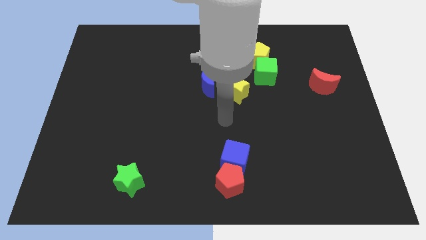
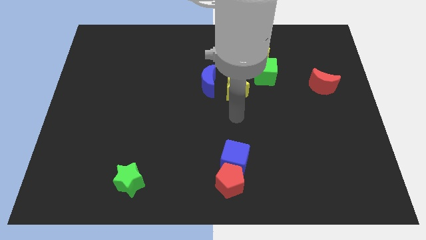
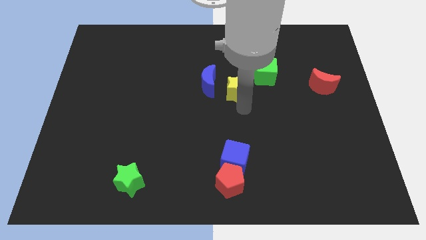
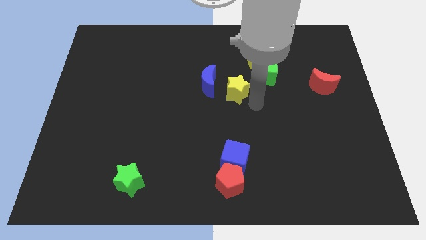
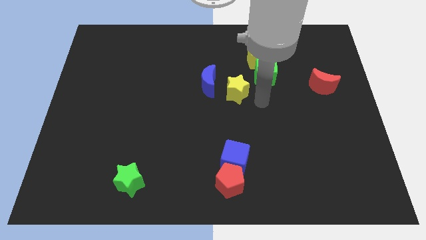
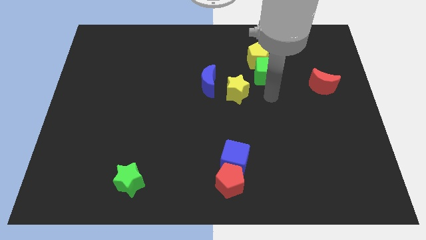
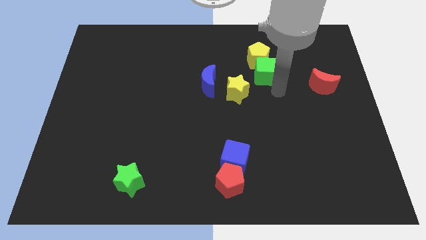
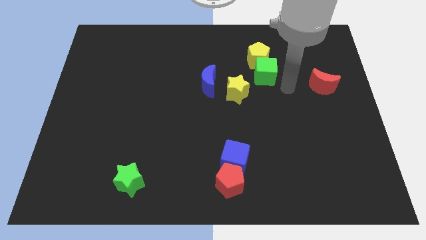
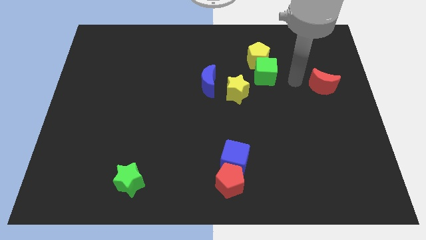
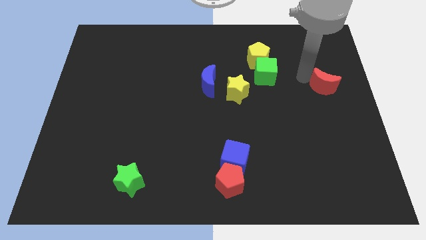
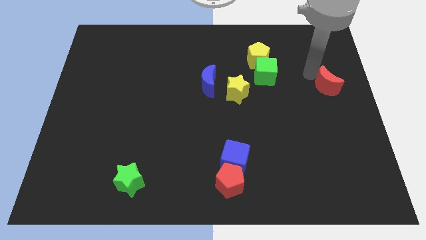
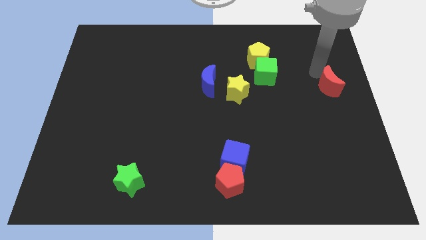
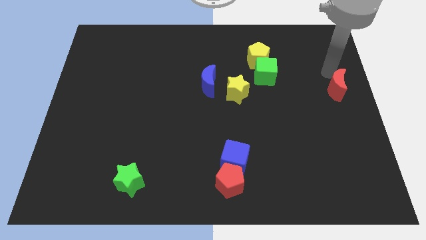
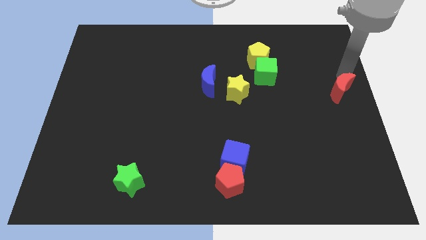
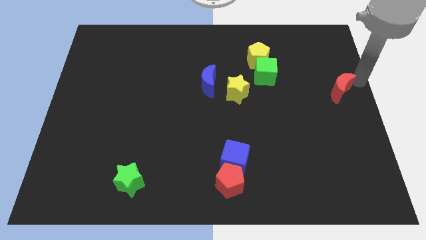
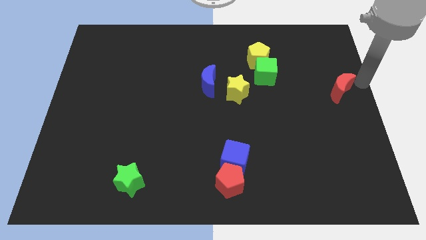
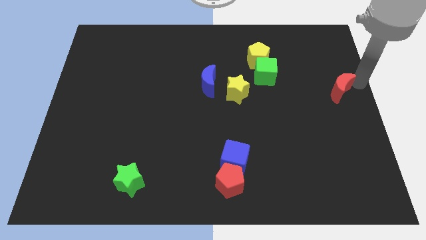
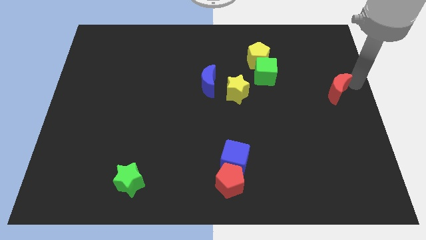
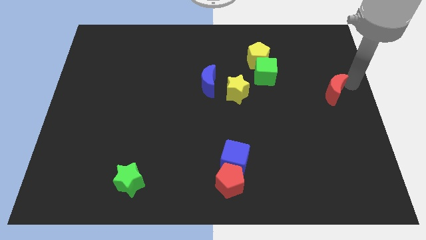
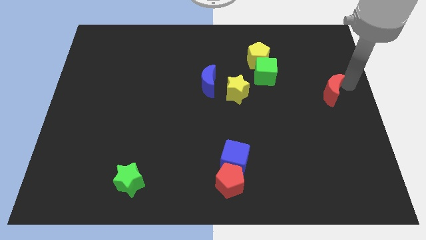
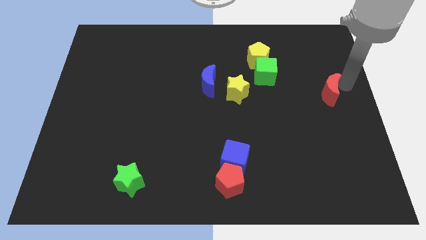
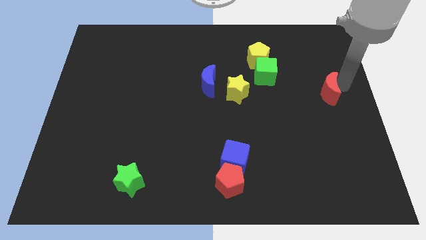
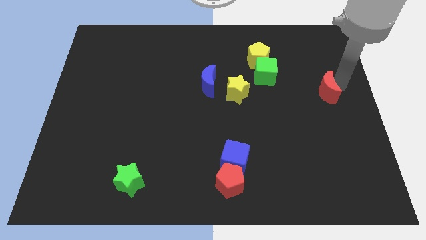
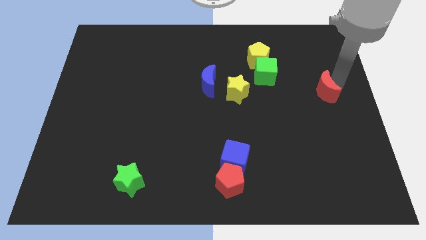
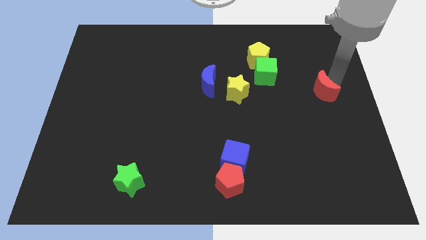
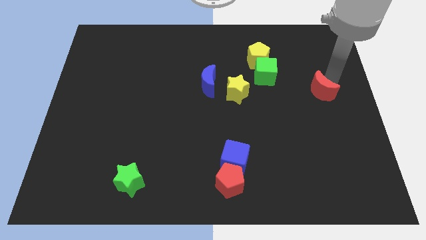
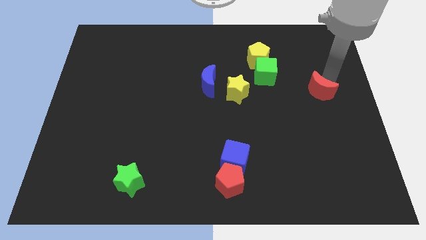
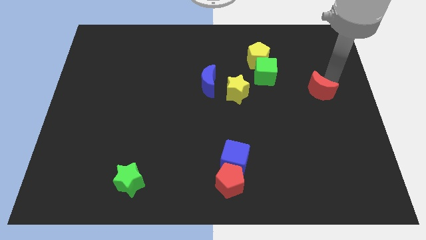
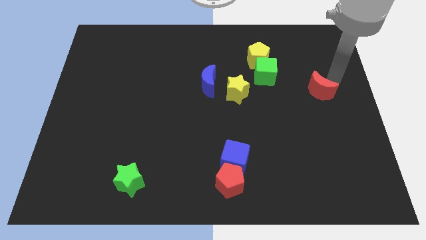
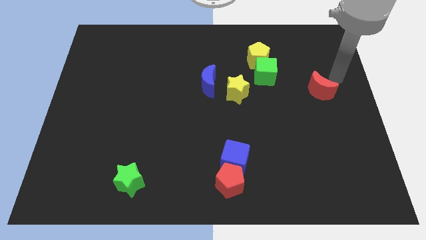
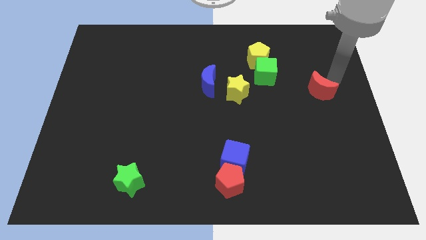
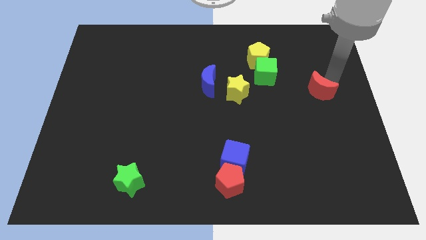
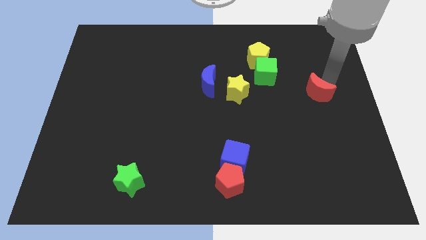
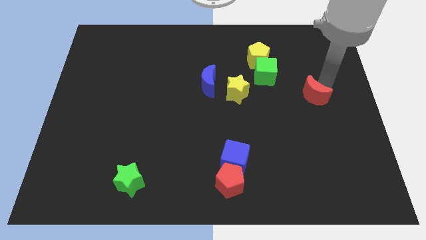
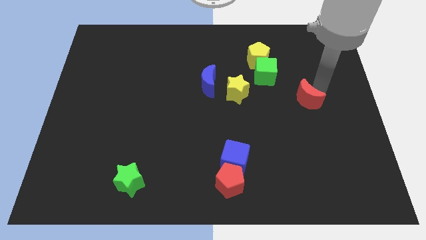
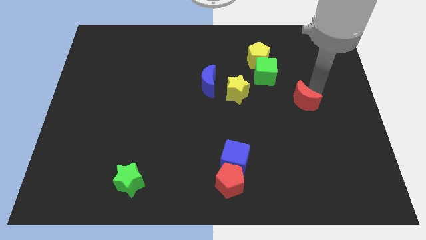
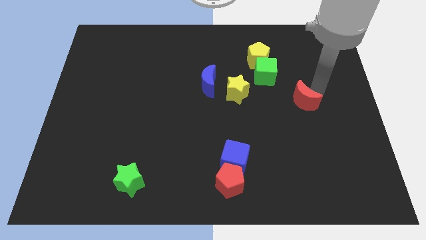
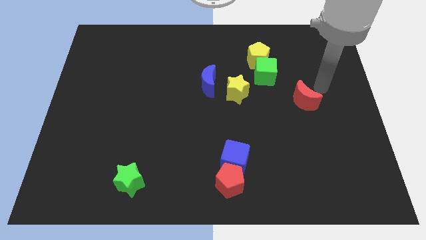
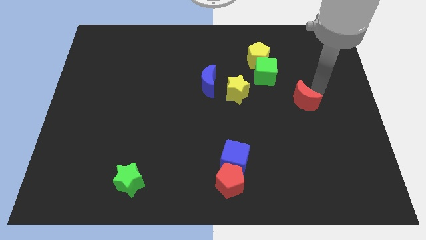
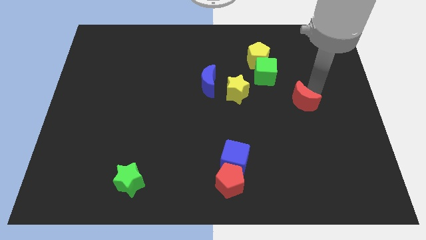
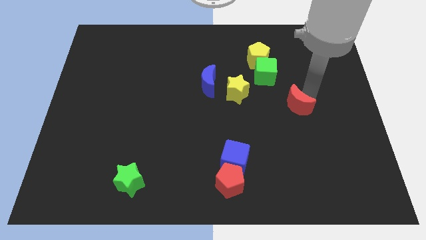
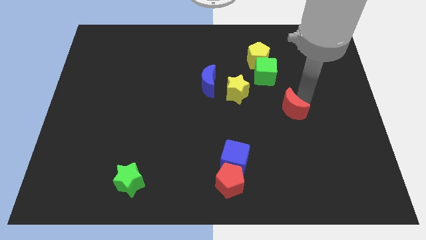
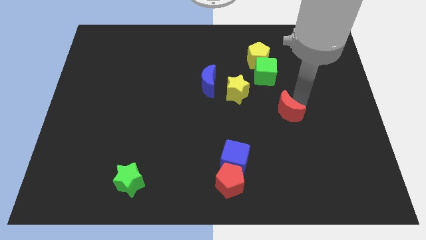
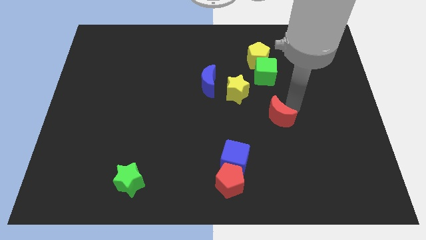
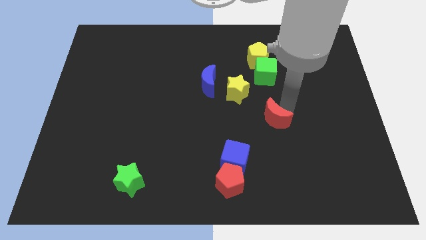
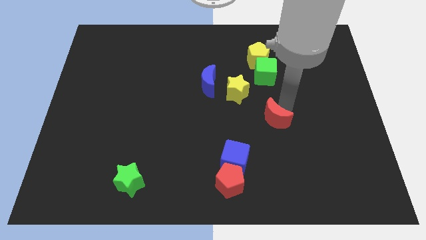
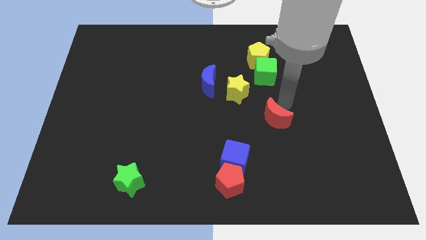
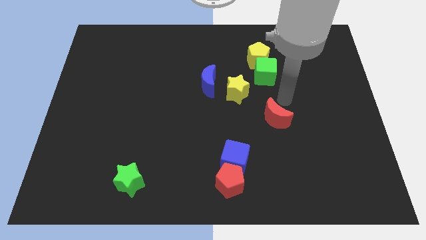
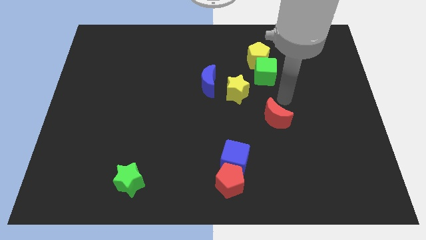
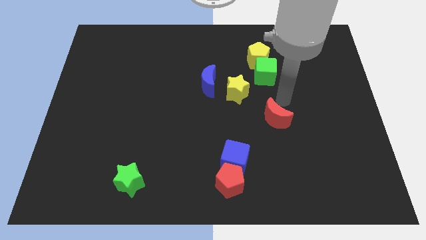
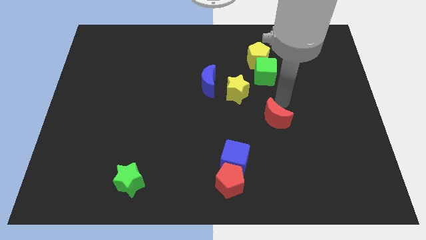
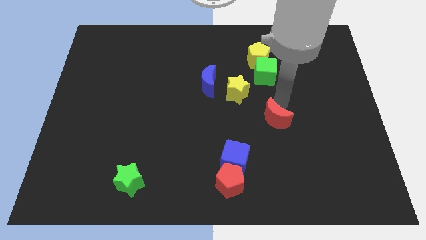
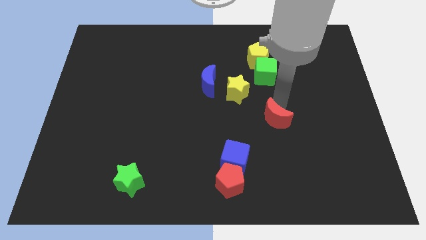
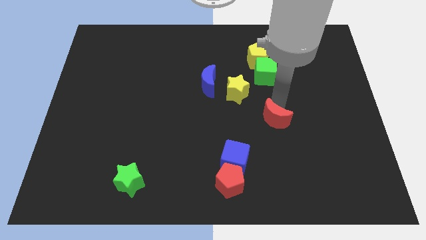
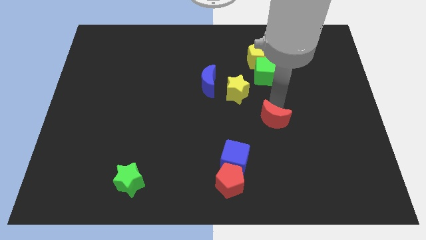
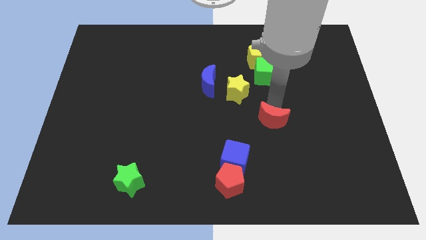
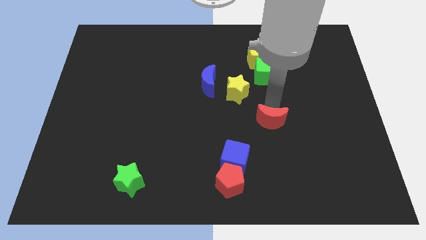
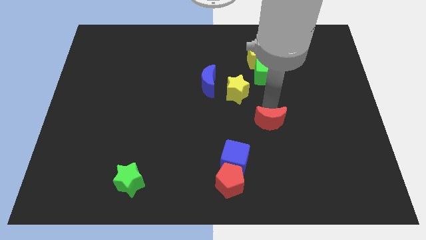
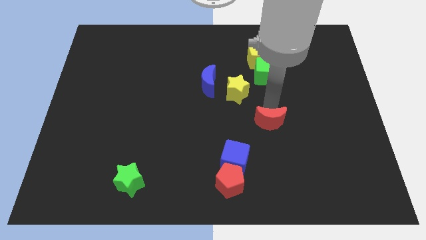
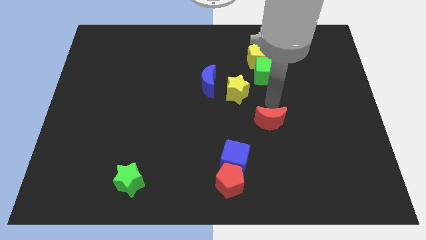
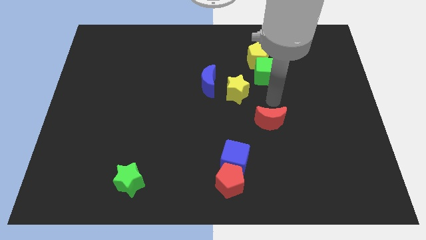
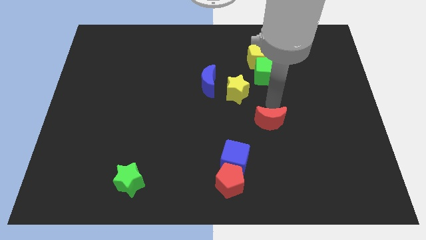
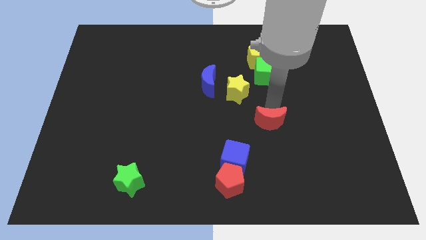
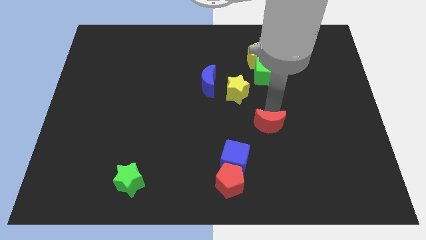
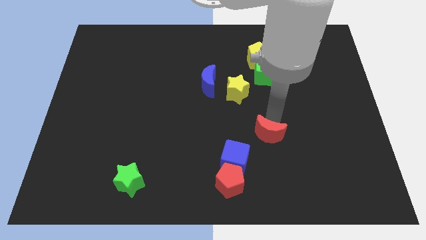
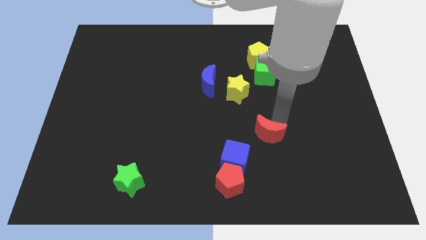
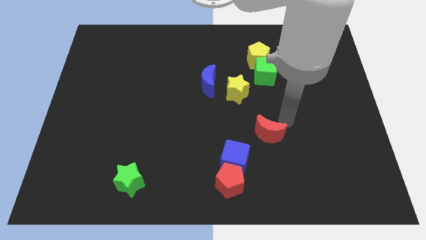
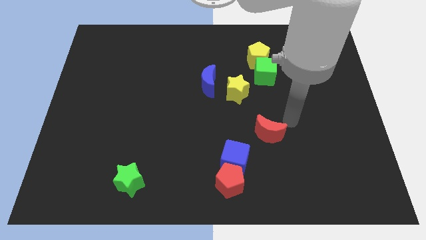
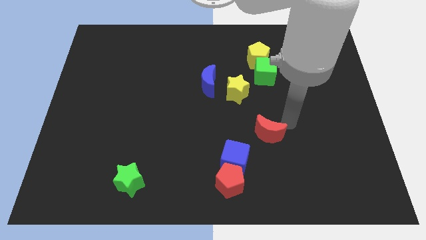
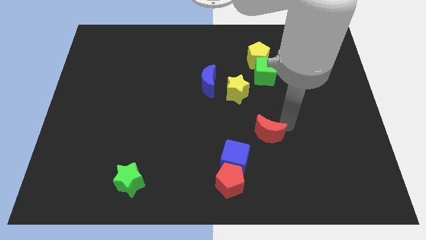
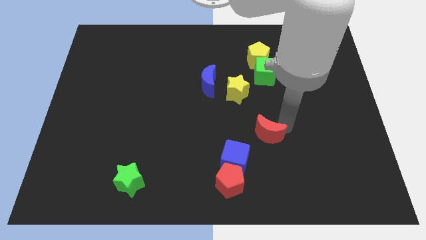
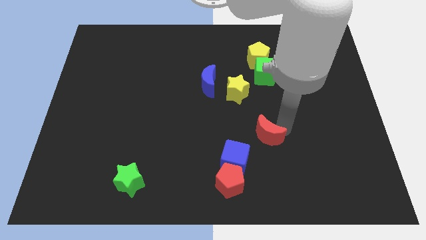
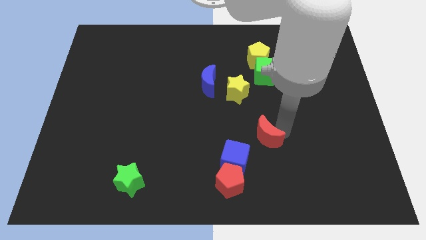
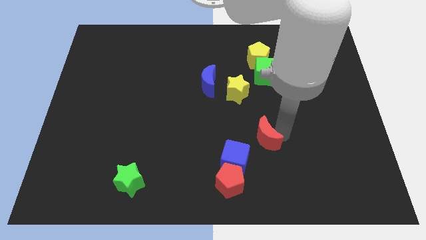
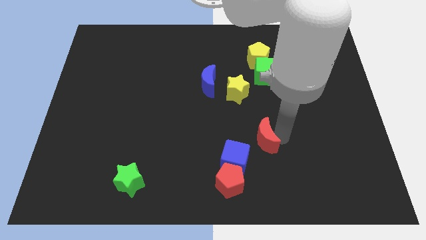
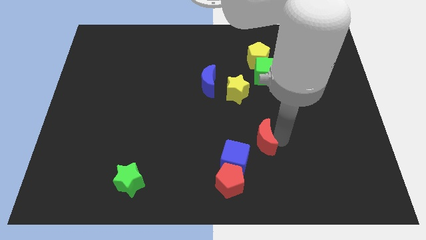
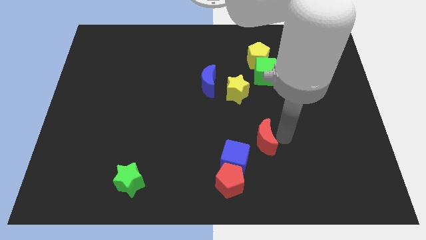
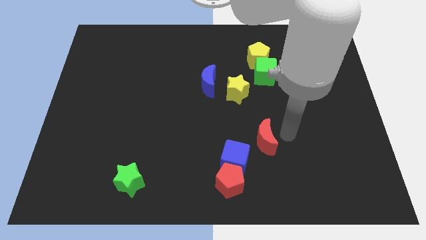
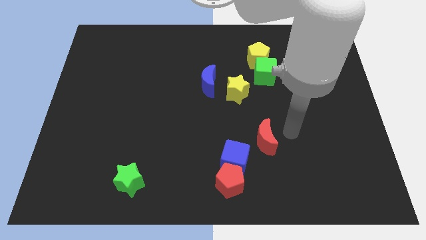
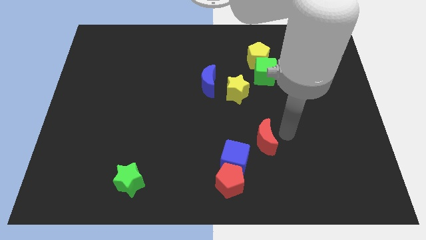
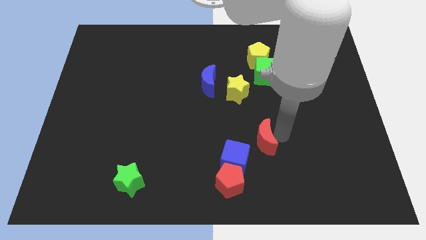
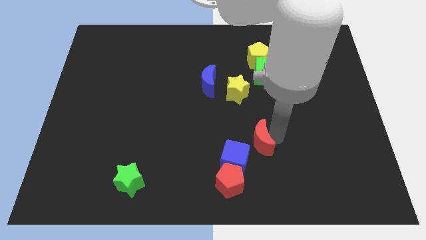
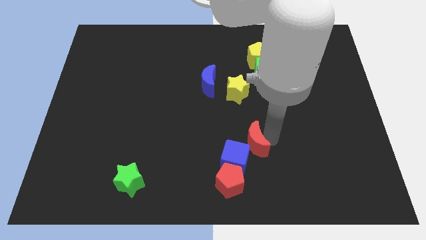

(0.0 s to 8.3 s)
slide the red moon next to the blue cube
